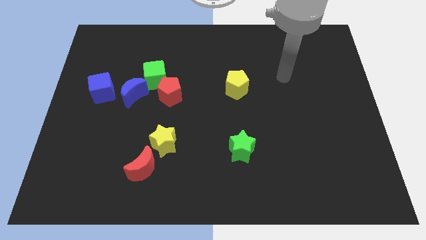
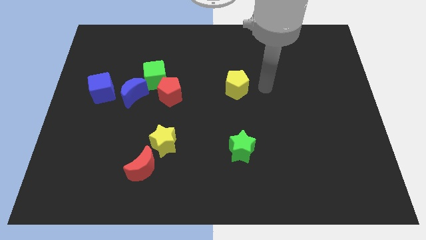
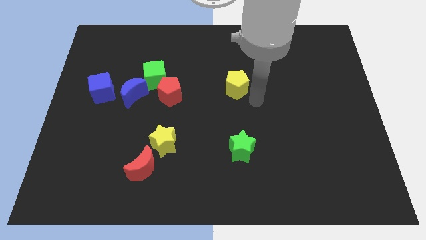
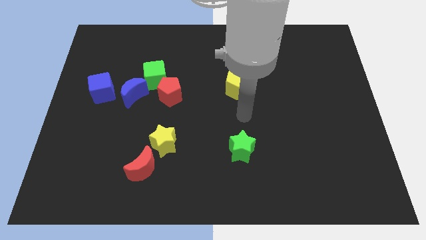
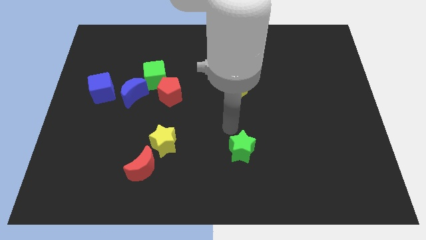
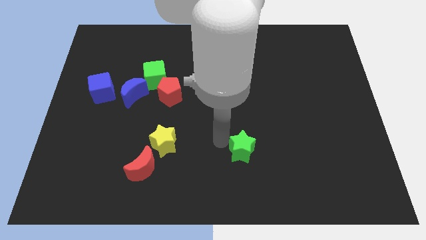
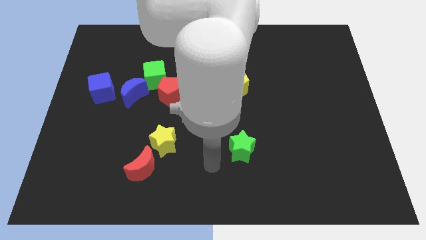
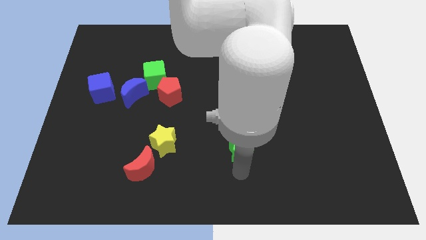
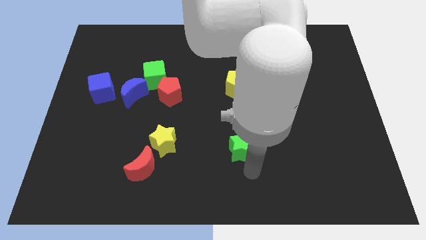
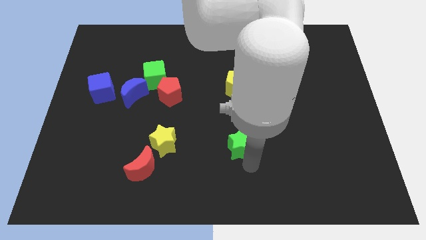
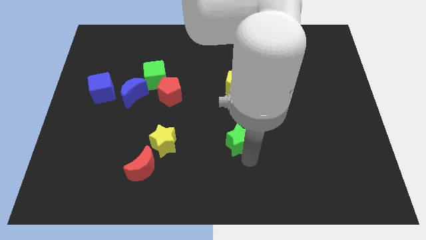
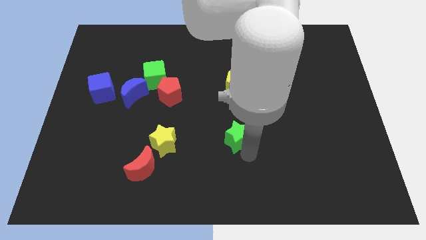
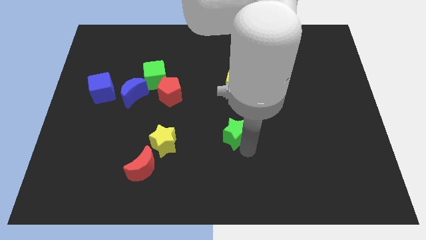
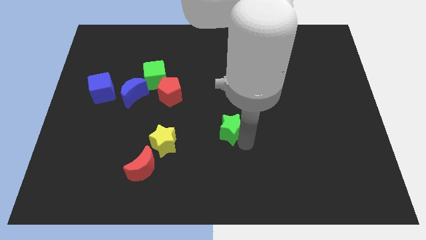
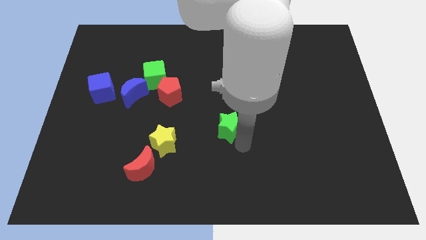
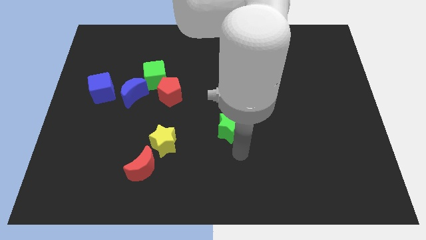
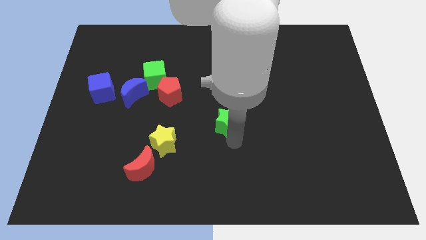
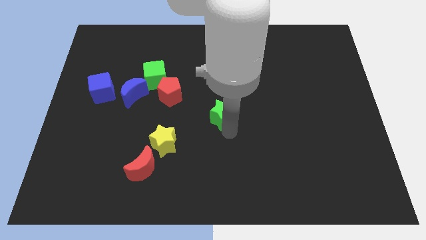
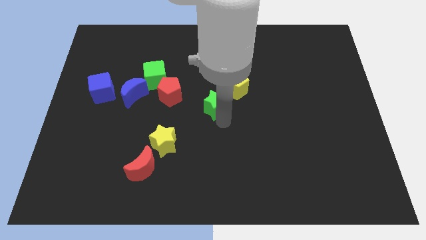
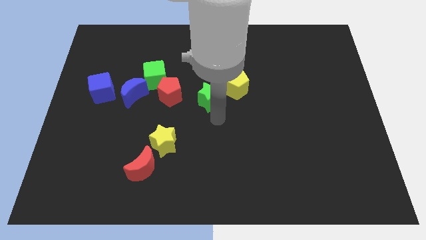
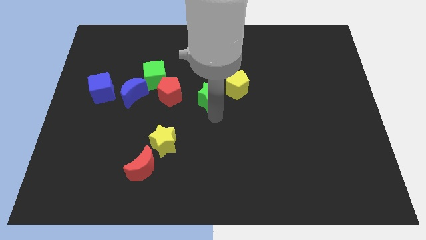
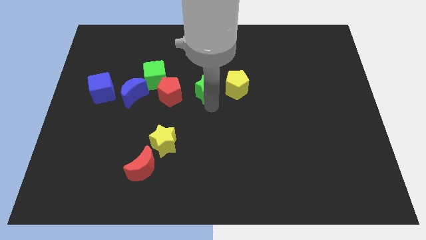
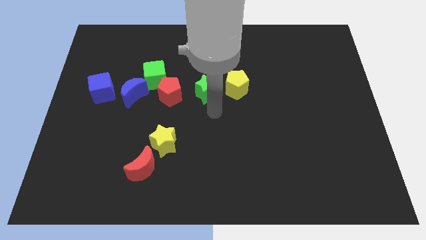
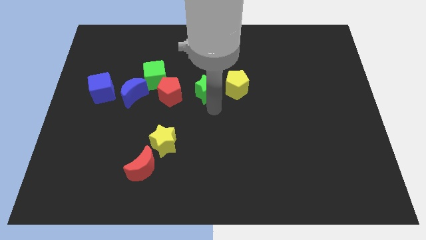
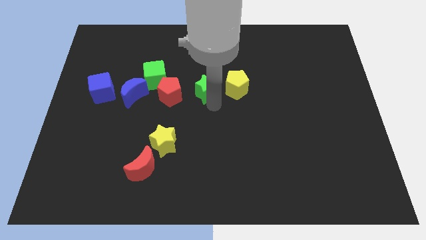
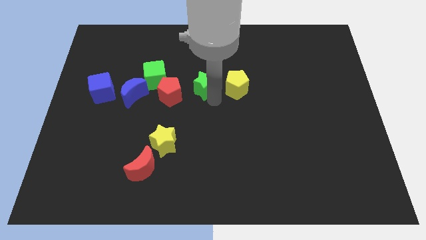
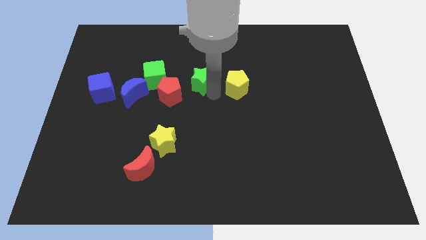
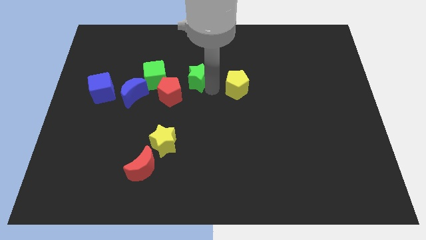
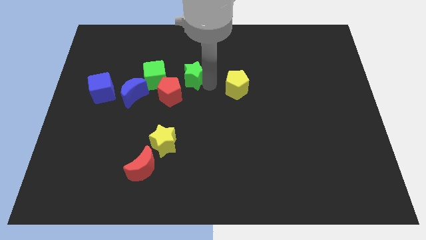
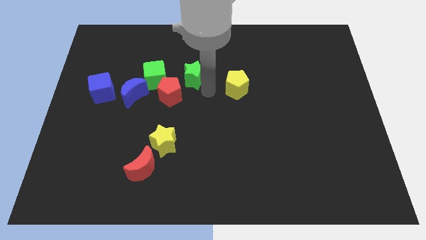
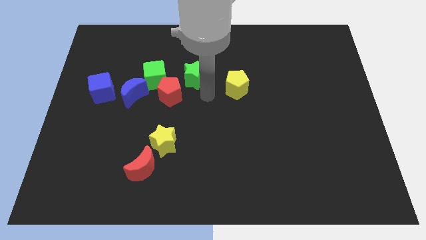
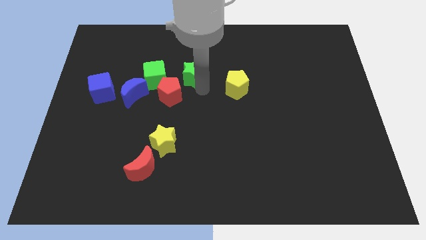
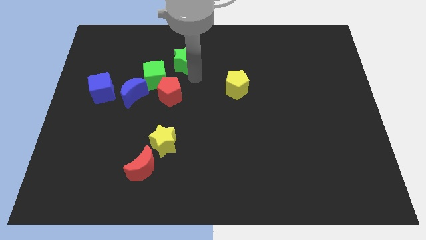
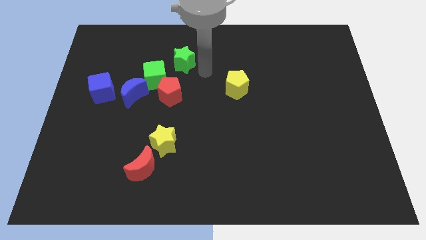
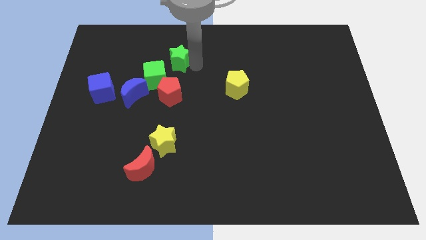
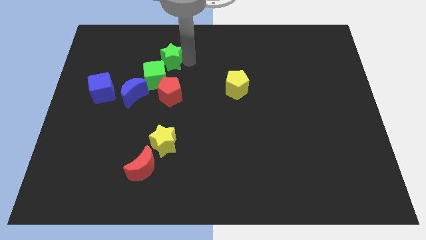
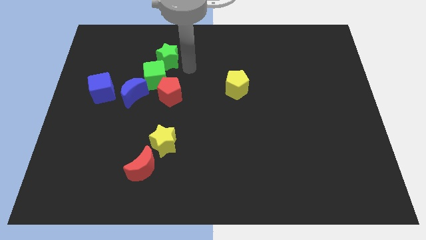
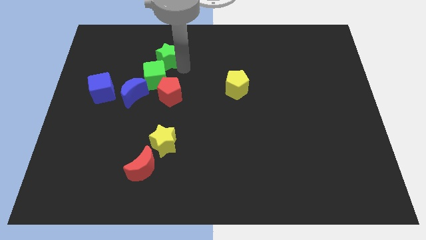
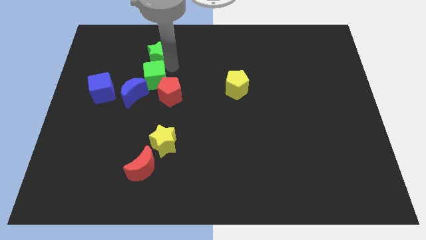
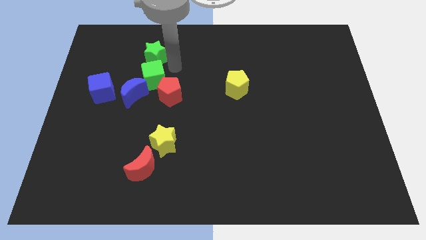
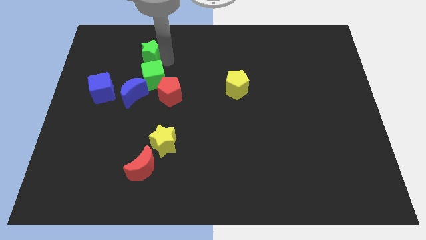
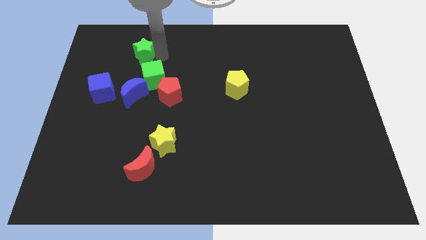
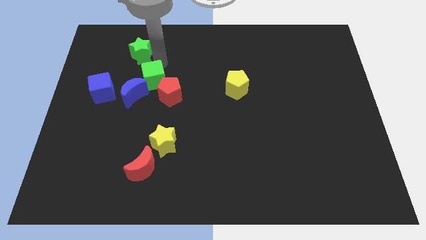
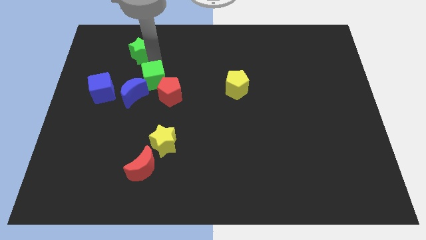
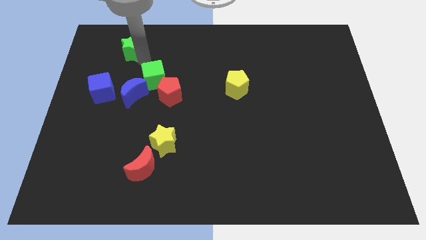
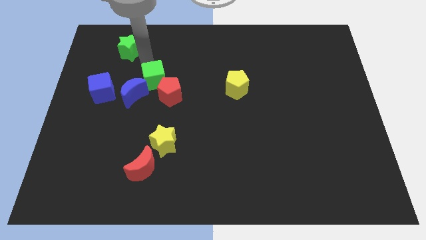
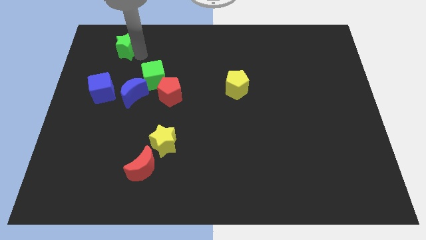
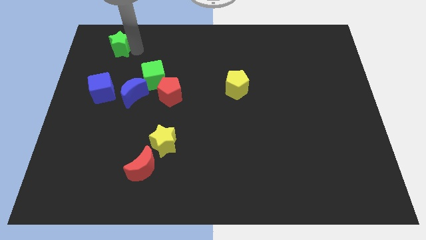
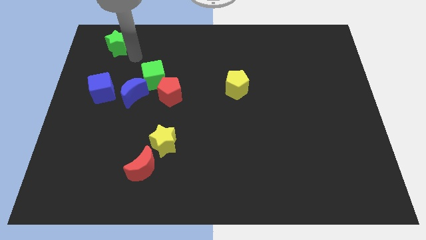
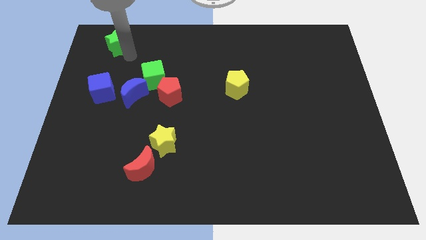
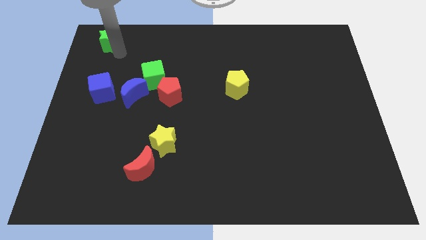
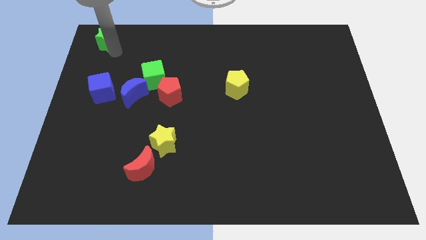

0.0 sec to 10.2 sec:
push the green star to the upper left corner

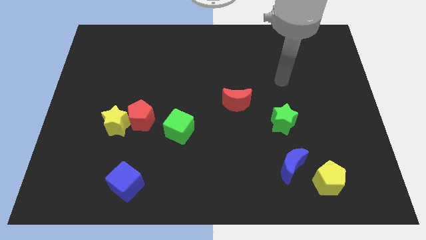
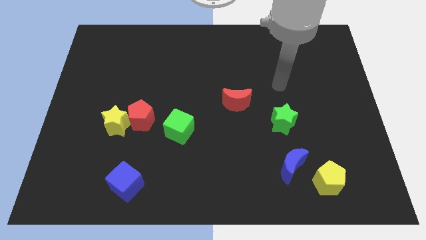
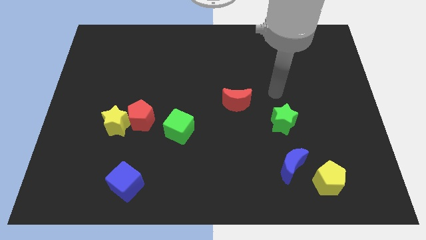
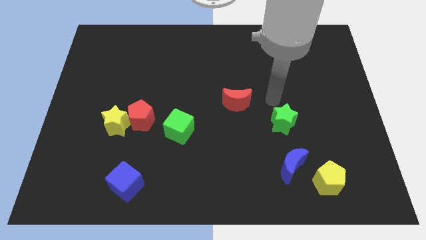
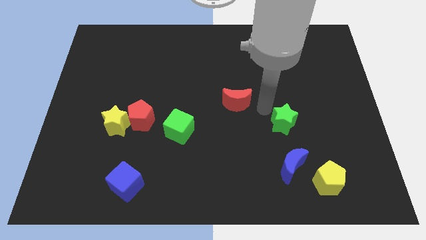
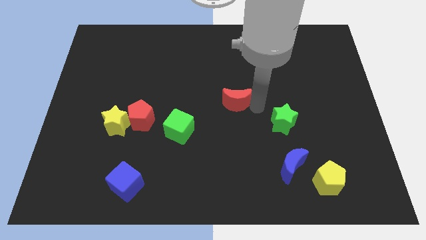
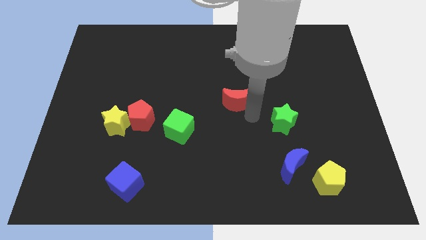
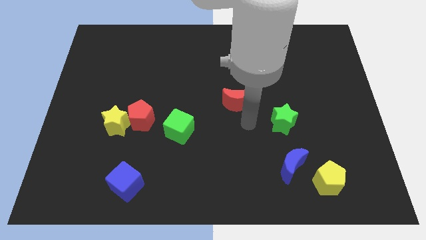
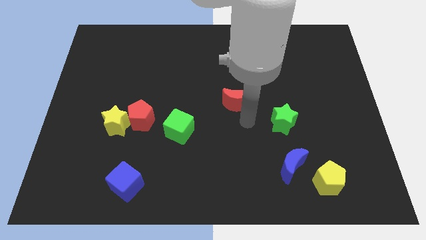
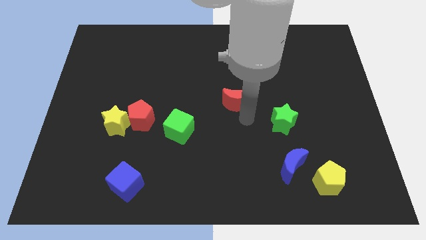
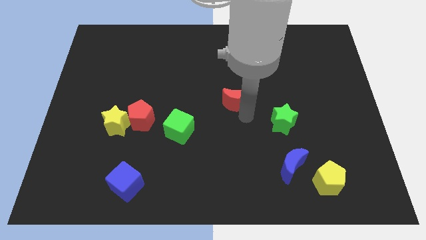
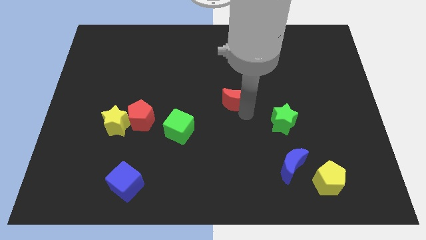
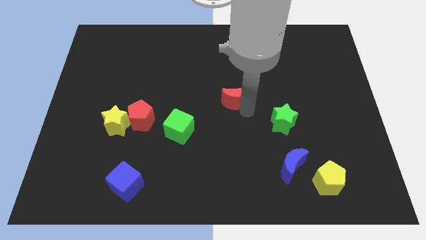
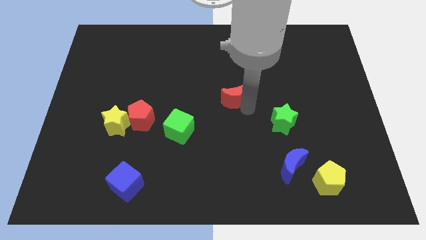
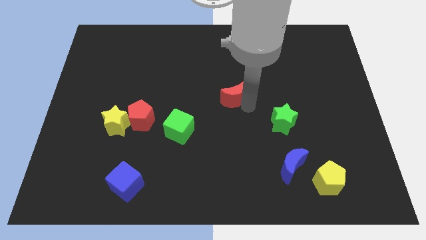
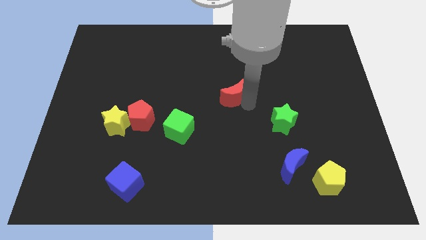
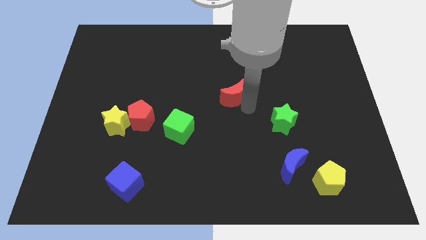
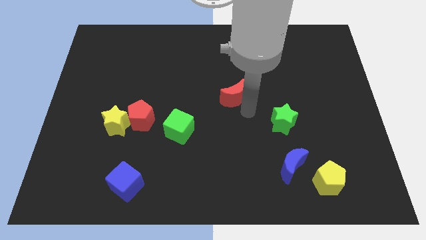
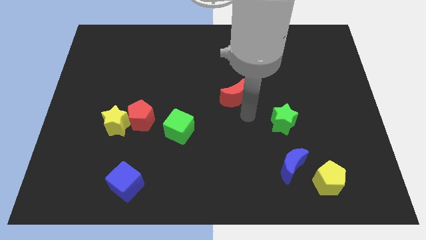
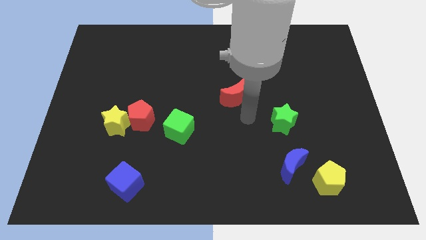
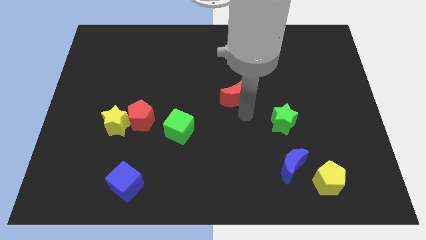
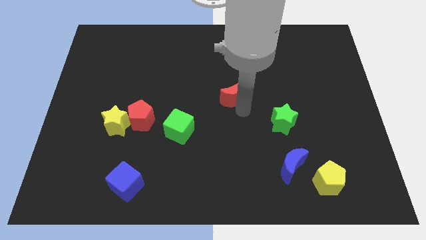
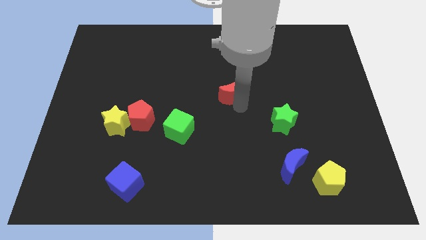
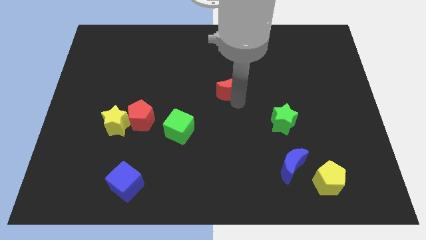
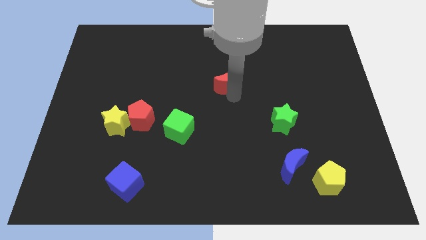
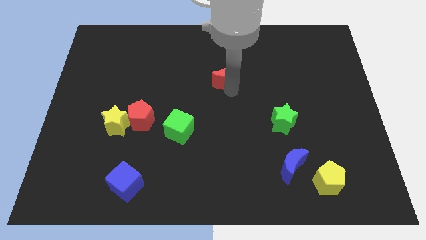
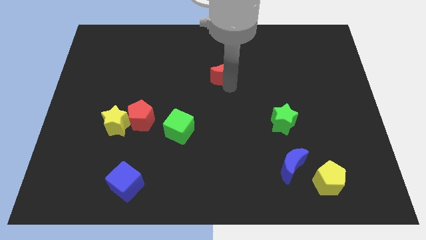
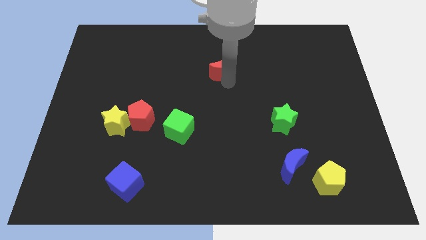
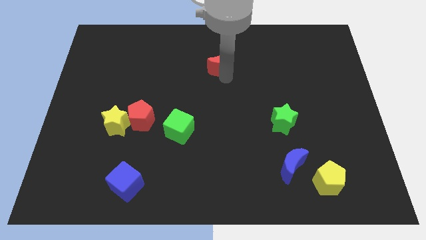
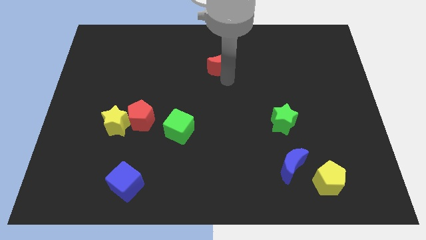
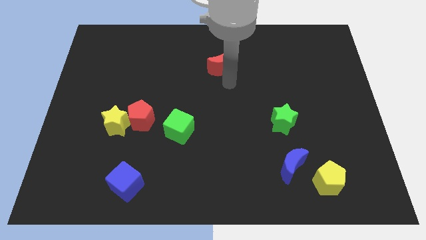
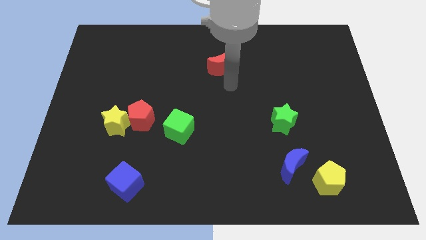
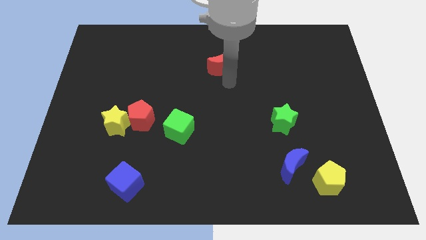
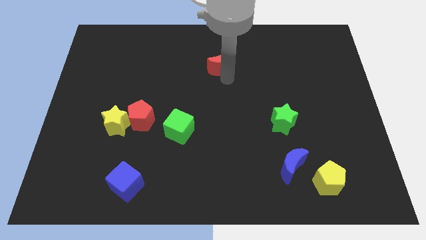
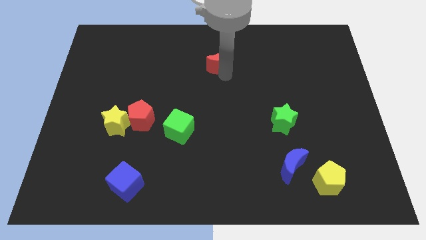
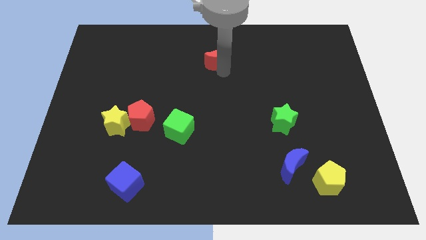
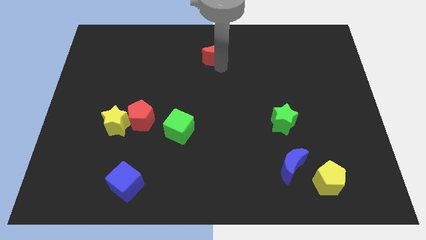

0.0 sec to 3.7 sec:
push the red moon to the towards your base
